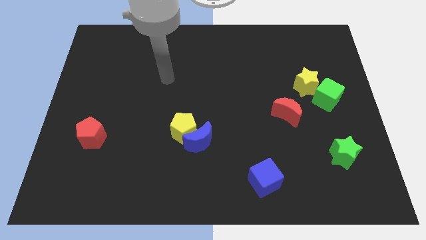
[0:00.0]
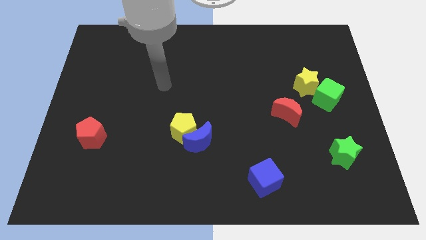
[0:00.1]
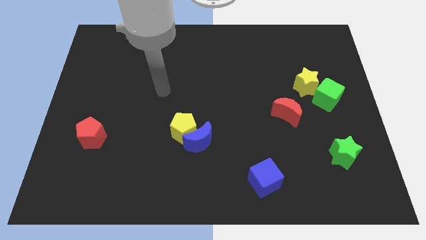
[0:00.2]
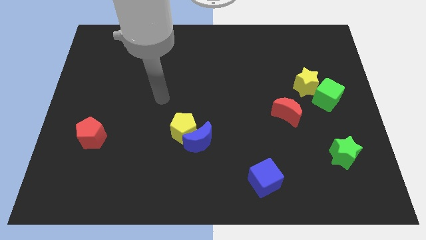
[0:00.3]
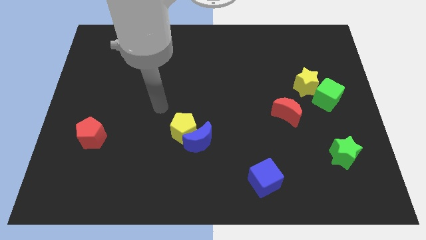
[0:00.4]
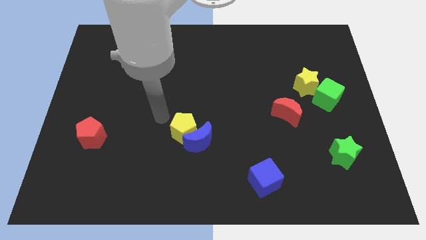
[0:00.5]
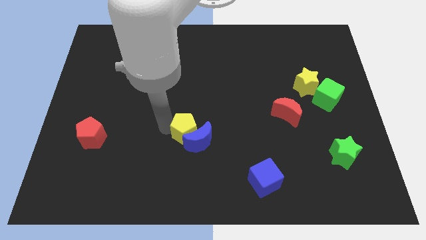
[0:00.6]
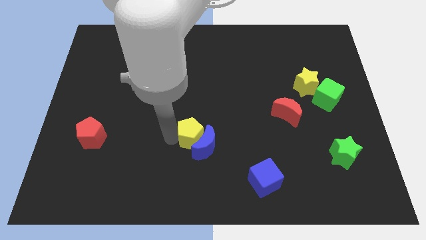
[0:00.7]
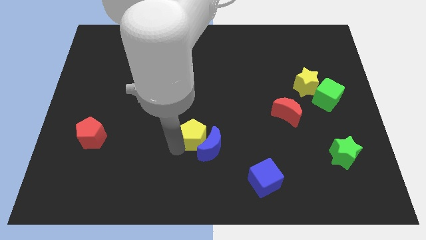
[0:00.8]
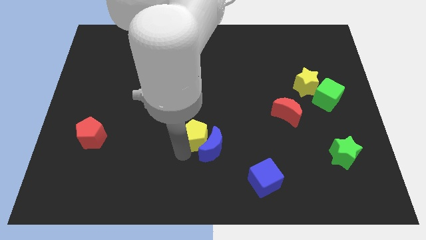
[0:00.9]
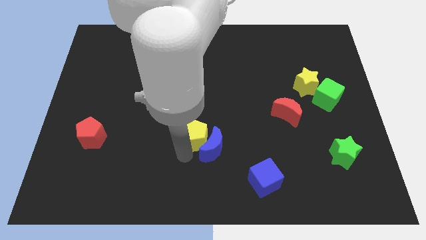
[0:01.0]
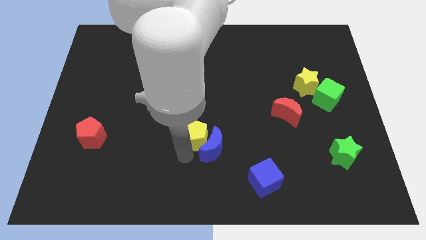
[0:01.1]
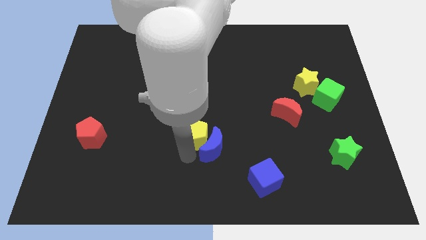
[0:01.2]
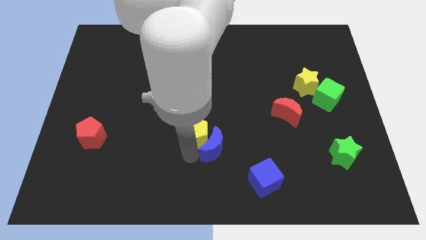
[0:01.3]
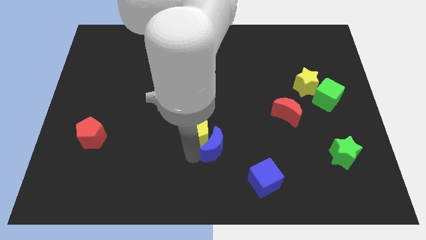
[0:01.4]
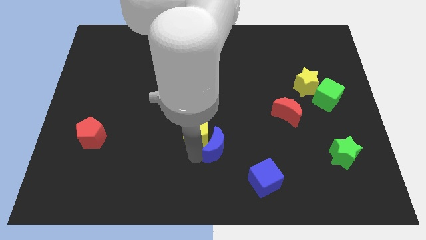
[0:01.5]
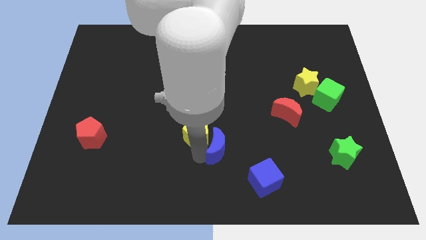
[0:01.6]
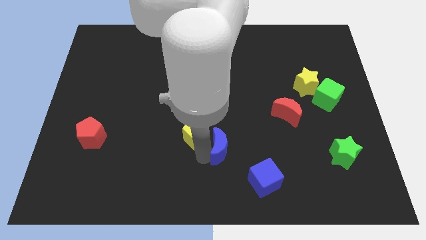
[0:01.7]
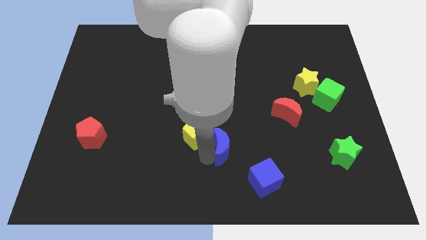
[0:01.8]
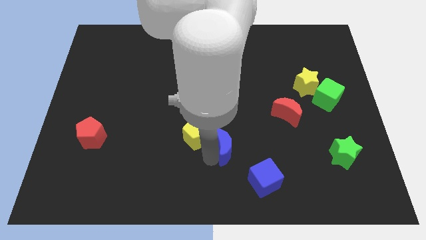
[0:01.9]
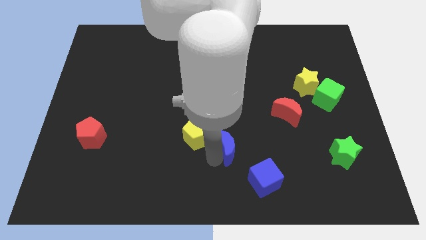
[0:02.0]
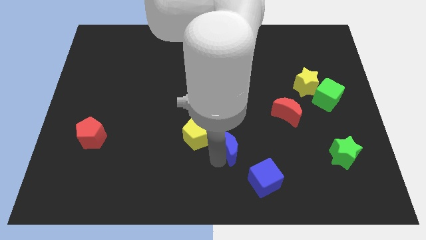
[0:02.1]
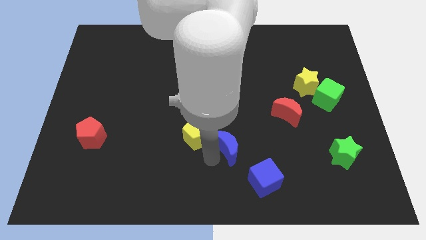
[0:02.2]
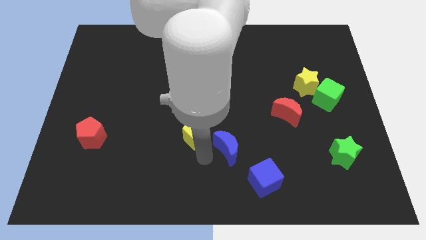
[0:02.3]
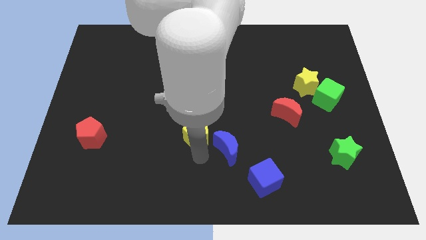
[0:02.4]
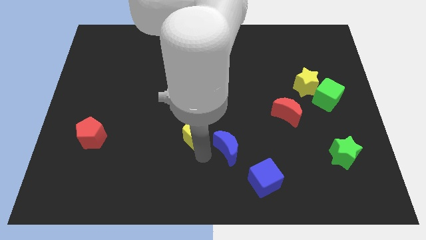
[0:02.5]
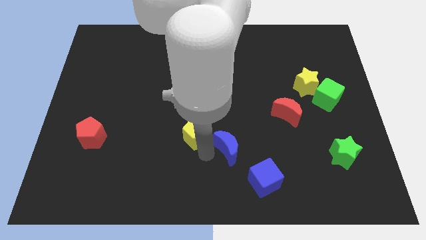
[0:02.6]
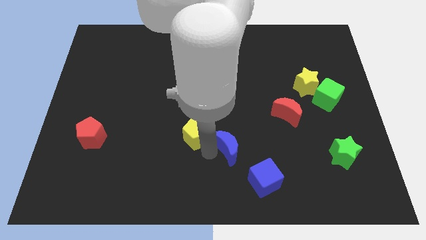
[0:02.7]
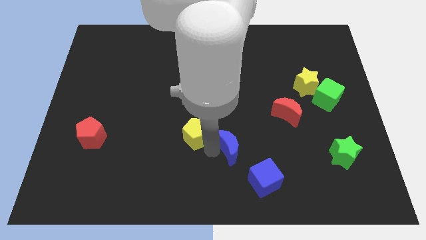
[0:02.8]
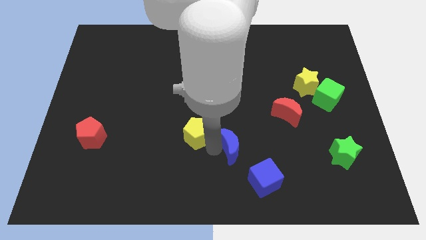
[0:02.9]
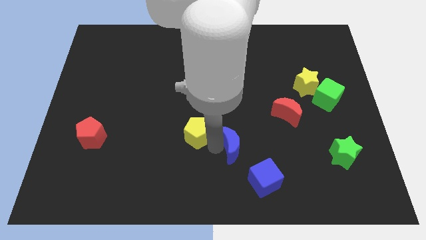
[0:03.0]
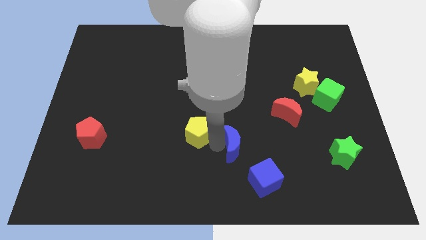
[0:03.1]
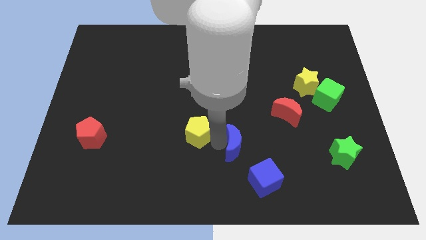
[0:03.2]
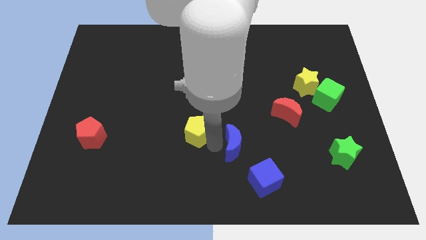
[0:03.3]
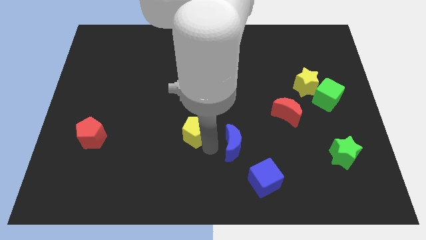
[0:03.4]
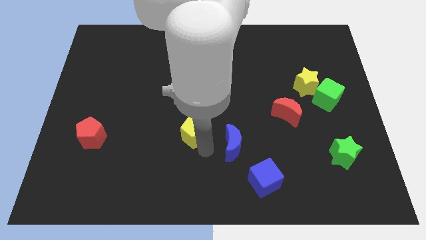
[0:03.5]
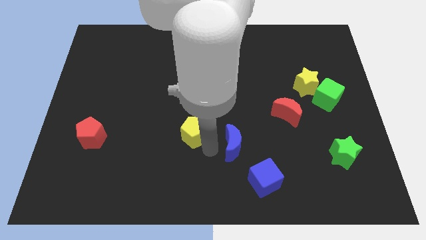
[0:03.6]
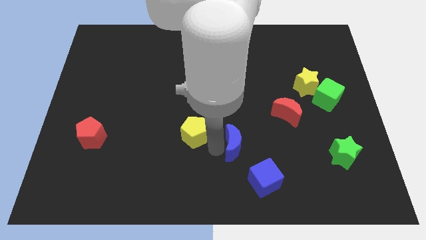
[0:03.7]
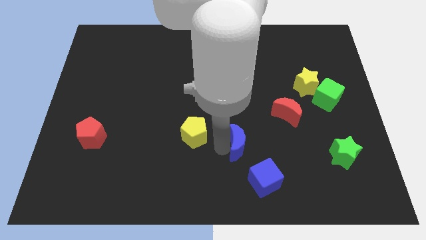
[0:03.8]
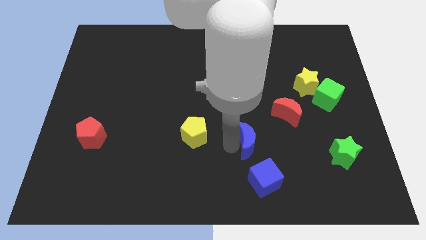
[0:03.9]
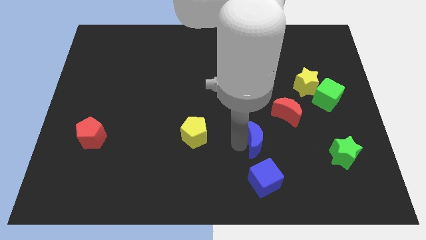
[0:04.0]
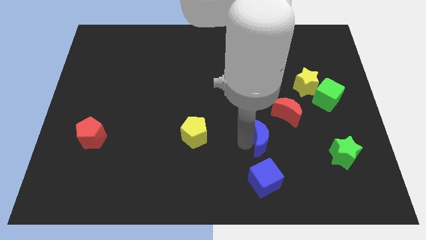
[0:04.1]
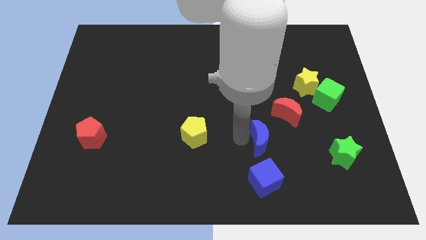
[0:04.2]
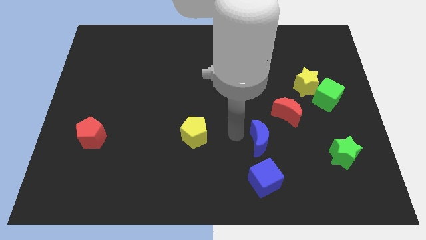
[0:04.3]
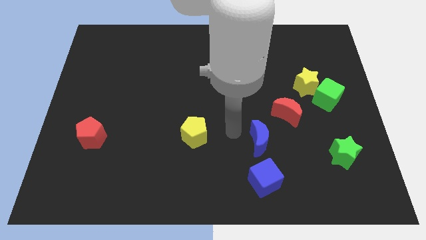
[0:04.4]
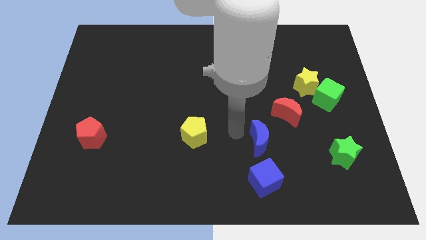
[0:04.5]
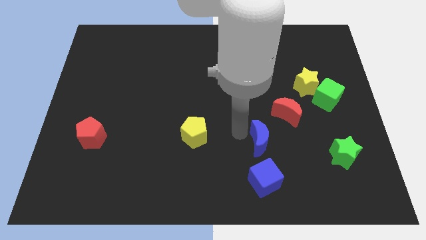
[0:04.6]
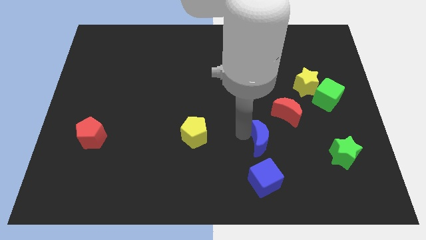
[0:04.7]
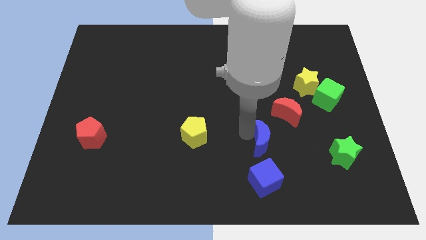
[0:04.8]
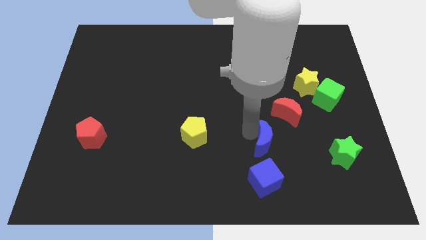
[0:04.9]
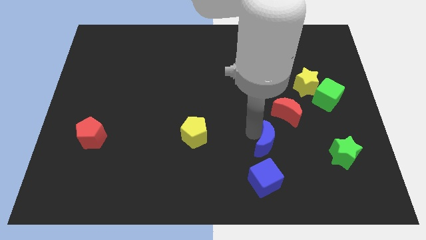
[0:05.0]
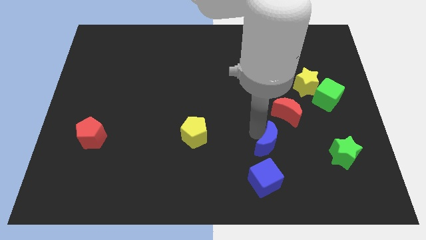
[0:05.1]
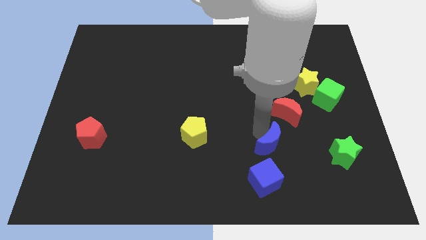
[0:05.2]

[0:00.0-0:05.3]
move the blue moon to the bottom side of the red moon
